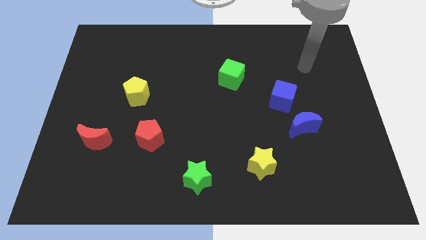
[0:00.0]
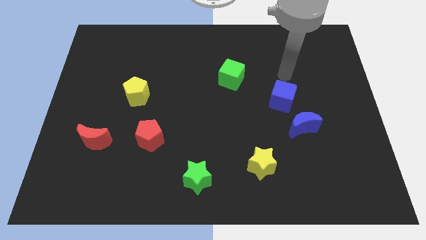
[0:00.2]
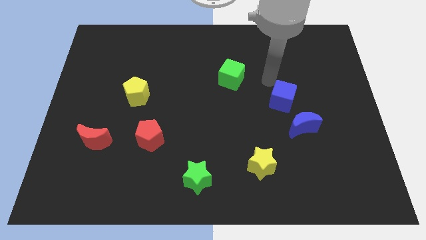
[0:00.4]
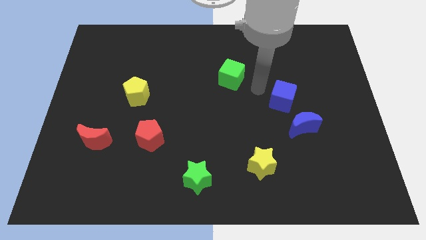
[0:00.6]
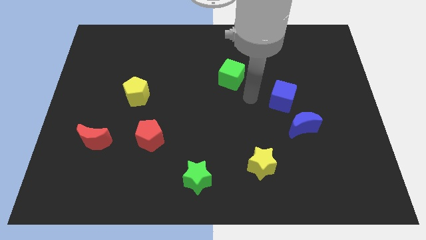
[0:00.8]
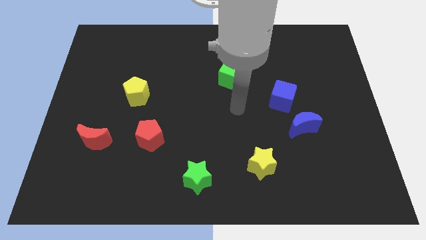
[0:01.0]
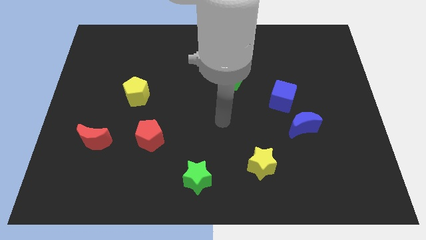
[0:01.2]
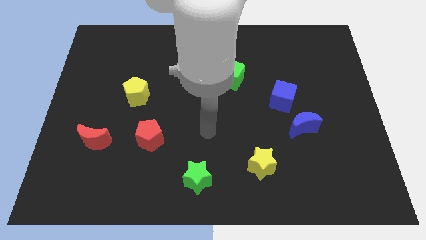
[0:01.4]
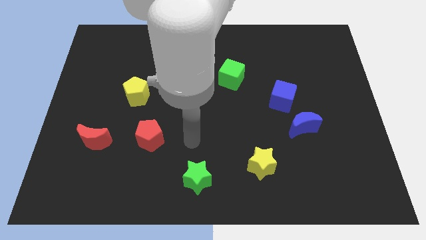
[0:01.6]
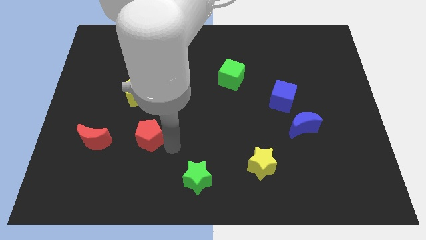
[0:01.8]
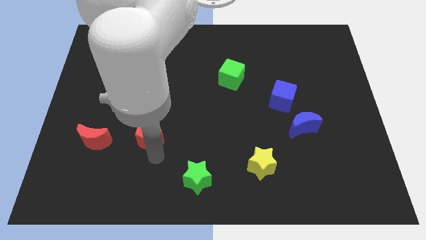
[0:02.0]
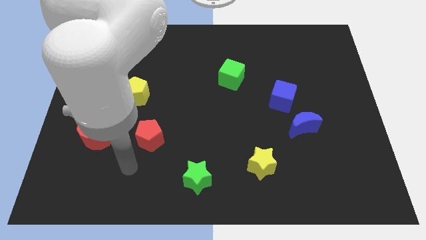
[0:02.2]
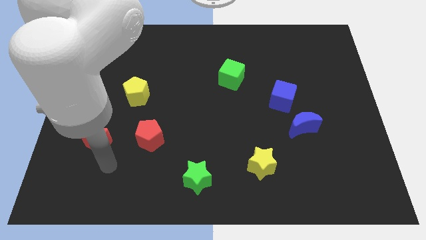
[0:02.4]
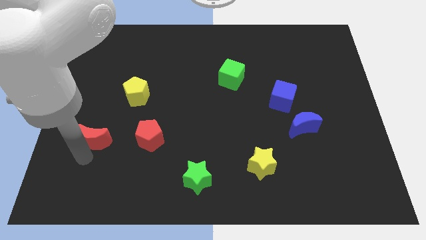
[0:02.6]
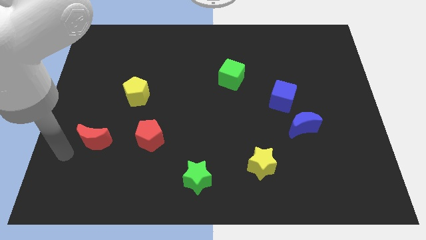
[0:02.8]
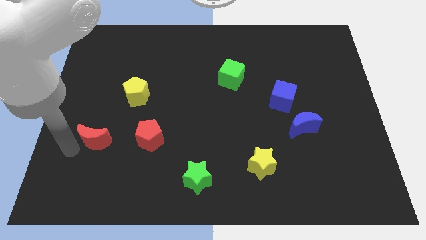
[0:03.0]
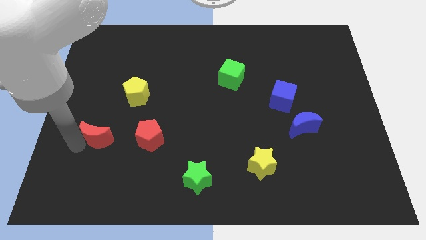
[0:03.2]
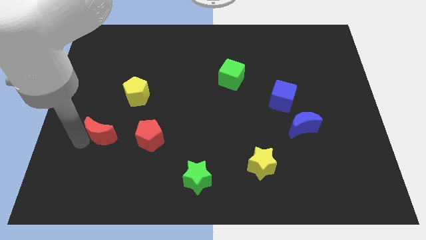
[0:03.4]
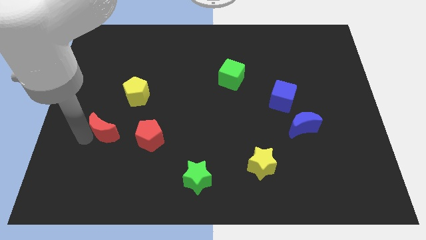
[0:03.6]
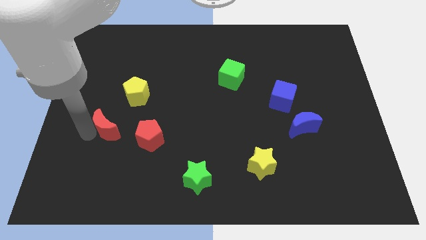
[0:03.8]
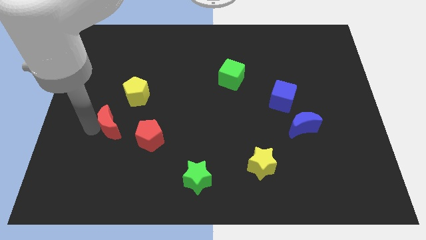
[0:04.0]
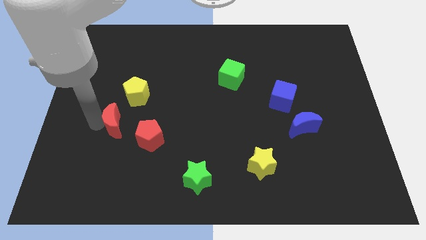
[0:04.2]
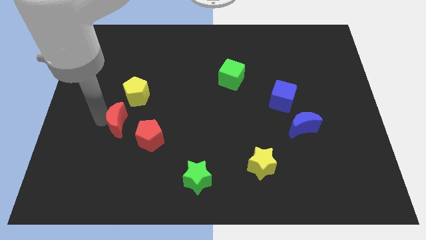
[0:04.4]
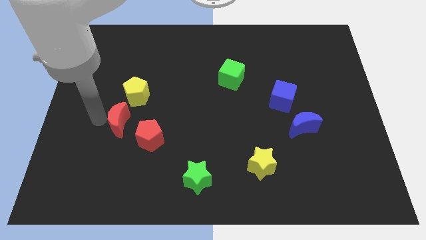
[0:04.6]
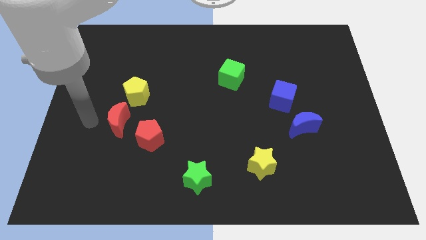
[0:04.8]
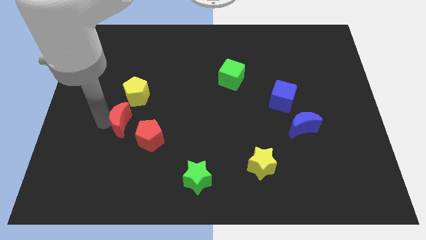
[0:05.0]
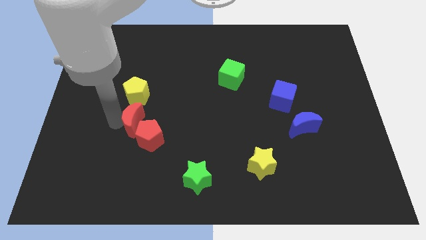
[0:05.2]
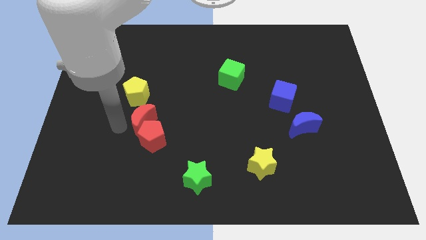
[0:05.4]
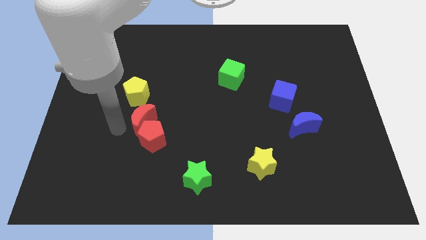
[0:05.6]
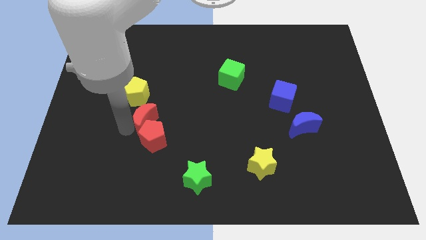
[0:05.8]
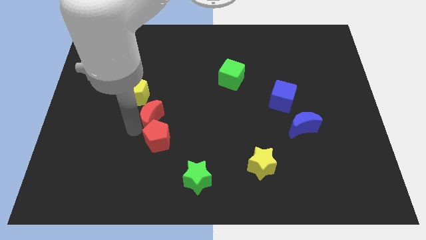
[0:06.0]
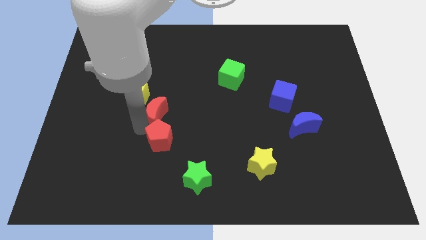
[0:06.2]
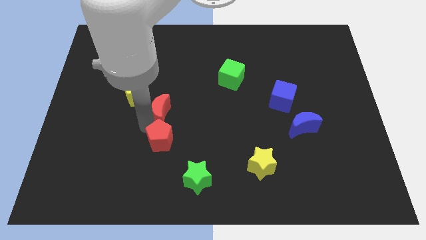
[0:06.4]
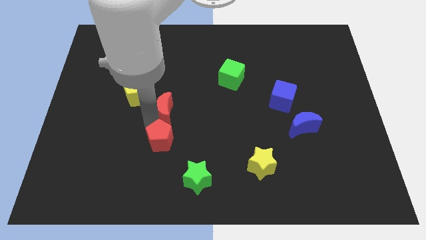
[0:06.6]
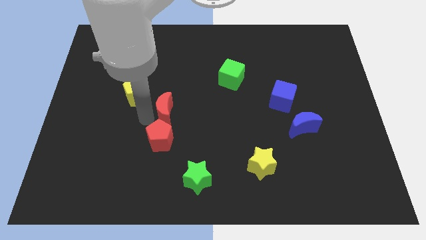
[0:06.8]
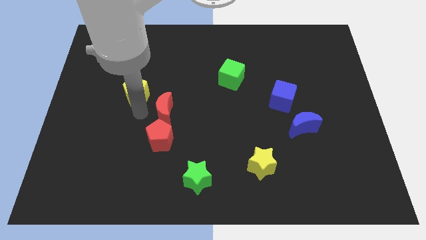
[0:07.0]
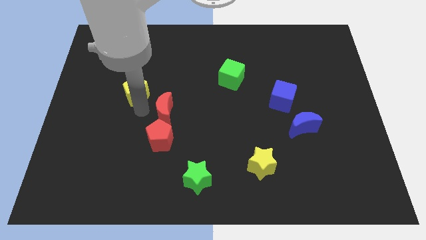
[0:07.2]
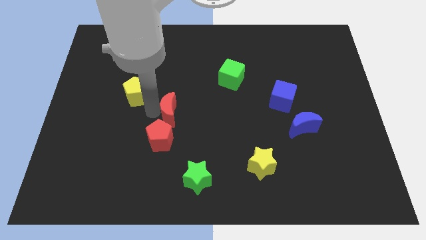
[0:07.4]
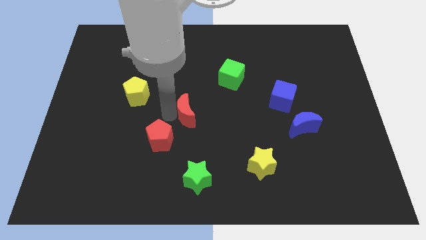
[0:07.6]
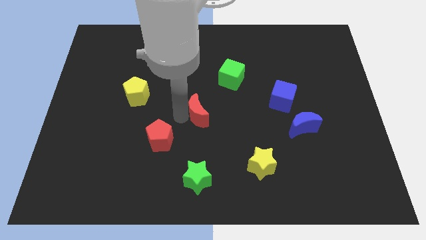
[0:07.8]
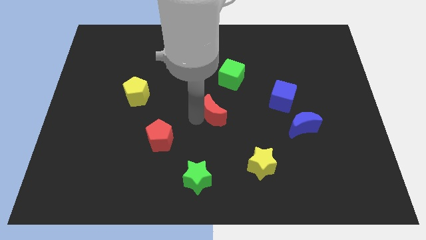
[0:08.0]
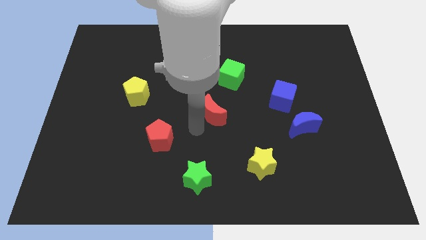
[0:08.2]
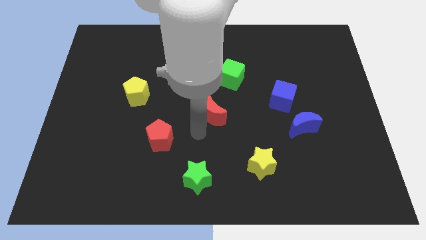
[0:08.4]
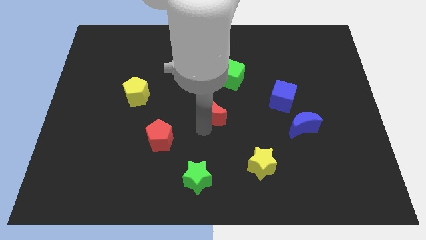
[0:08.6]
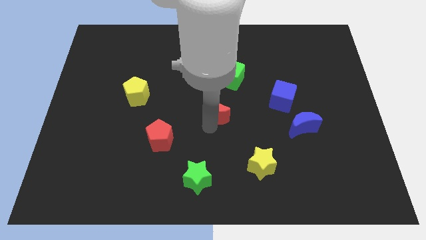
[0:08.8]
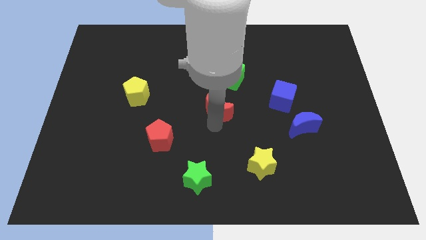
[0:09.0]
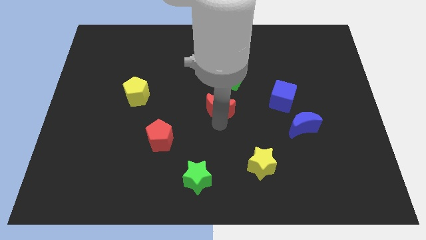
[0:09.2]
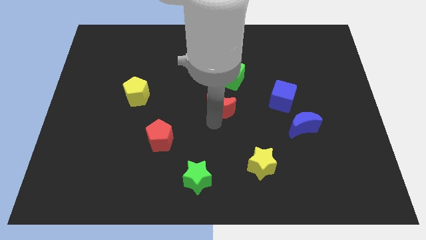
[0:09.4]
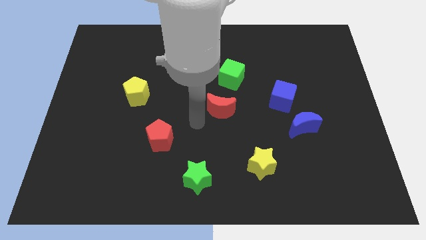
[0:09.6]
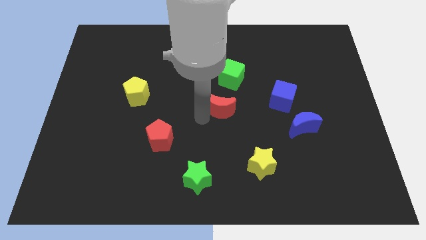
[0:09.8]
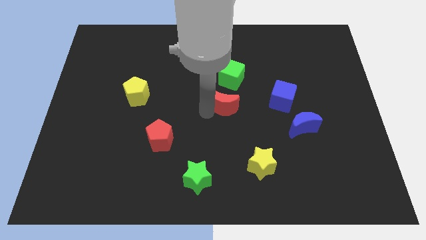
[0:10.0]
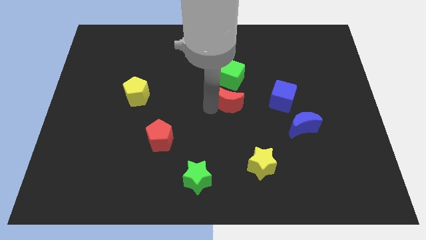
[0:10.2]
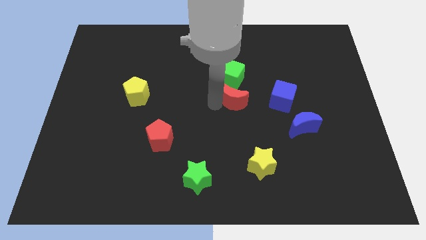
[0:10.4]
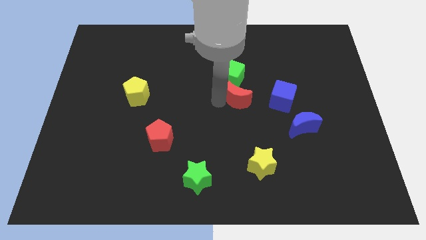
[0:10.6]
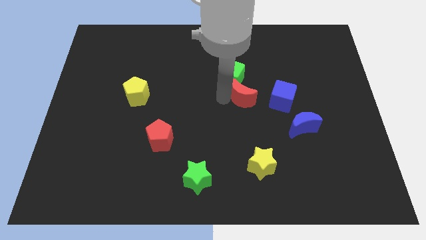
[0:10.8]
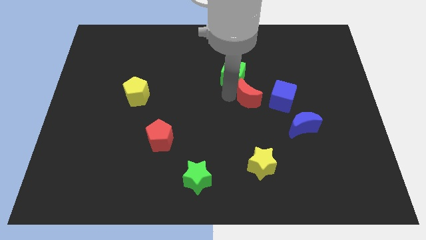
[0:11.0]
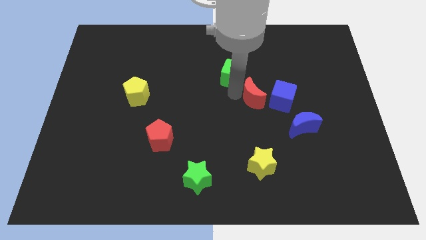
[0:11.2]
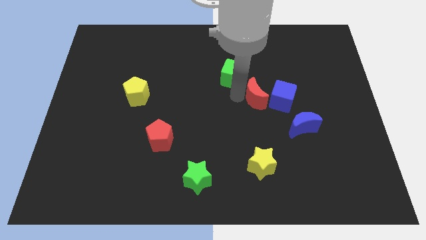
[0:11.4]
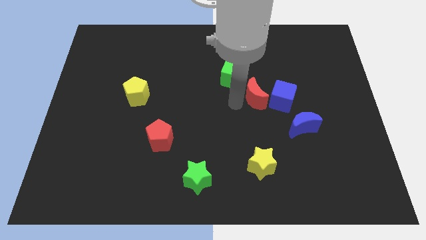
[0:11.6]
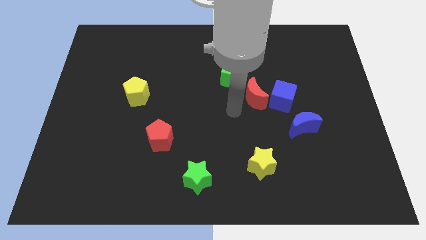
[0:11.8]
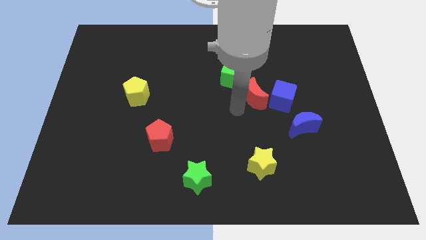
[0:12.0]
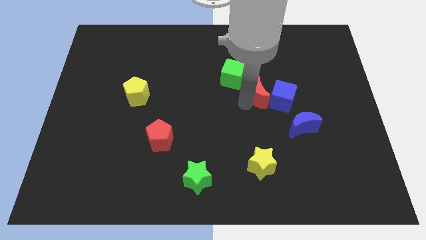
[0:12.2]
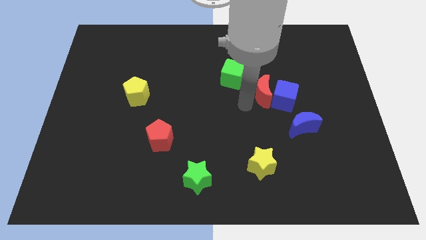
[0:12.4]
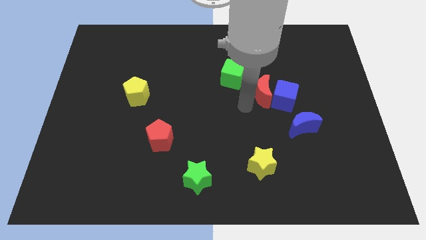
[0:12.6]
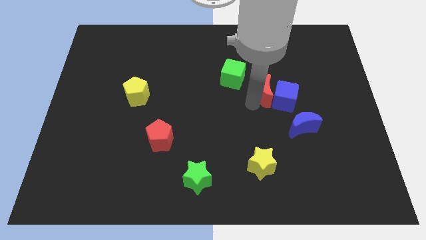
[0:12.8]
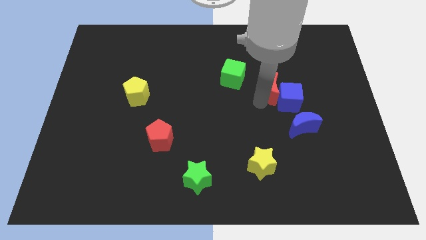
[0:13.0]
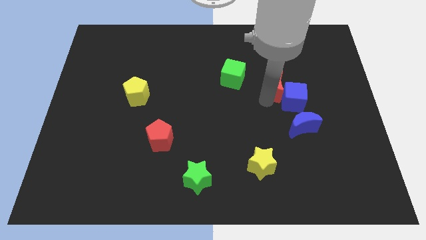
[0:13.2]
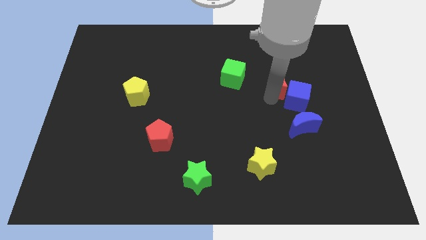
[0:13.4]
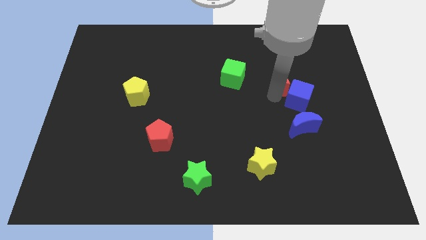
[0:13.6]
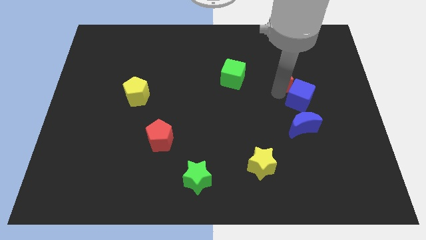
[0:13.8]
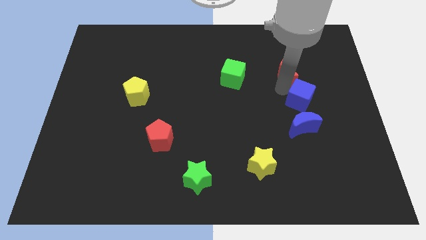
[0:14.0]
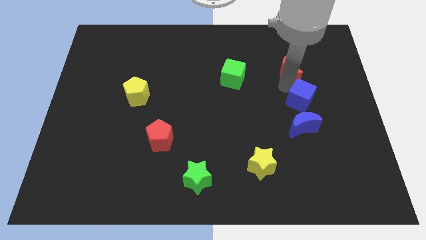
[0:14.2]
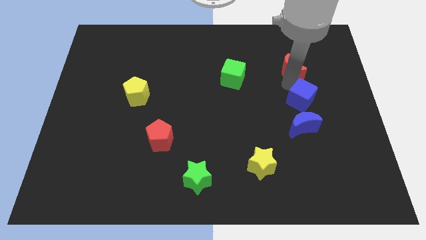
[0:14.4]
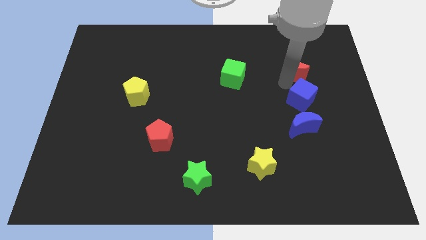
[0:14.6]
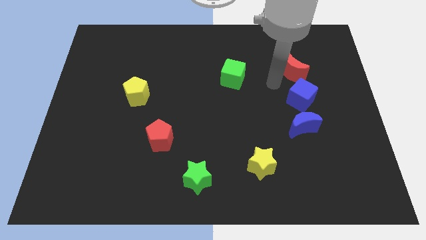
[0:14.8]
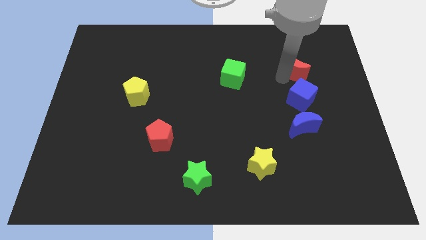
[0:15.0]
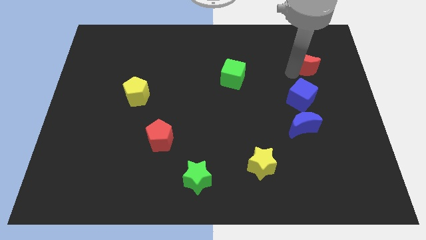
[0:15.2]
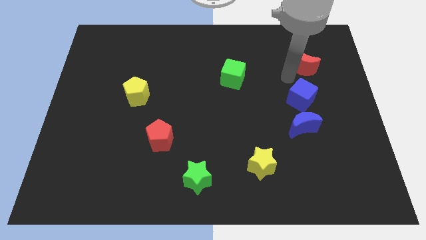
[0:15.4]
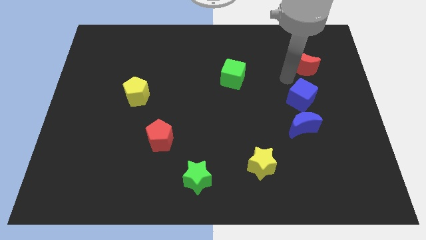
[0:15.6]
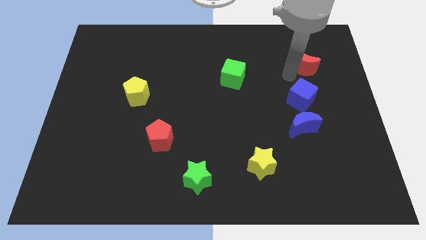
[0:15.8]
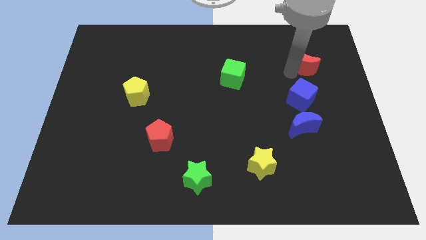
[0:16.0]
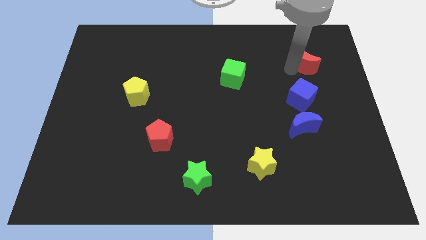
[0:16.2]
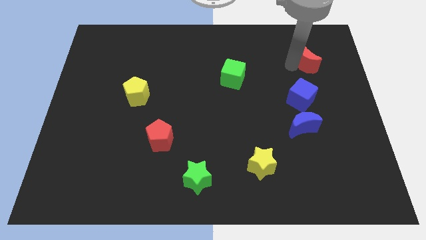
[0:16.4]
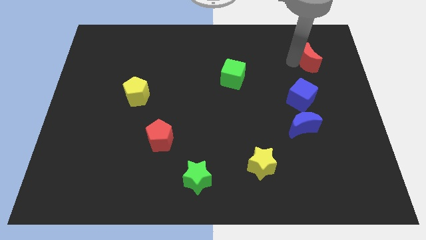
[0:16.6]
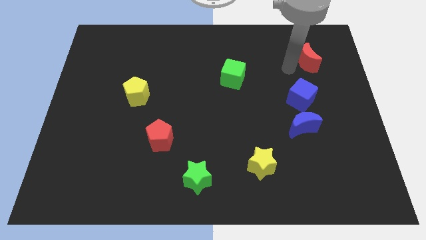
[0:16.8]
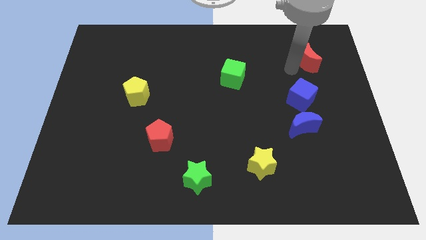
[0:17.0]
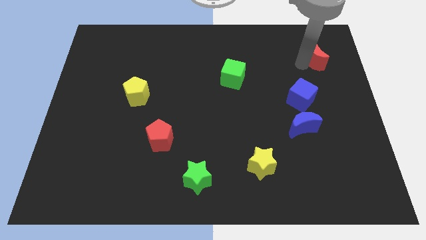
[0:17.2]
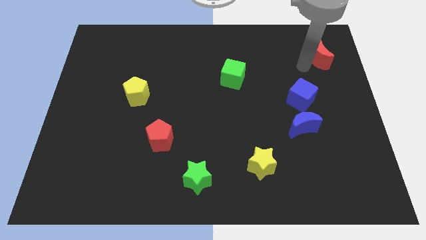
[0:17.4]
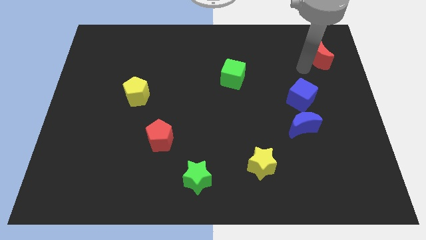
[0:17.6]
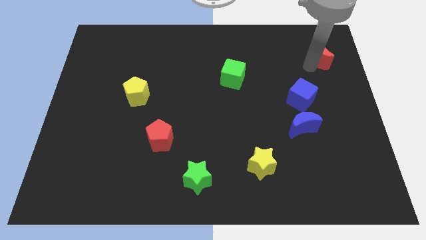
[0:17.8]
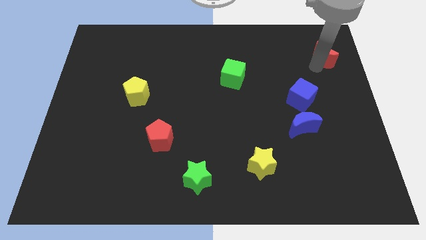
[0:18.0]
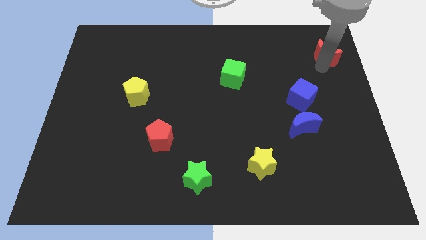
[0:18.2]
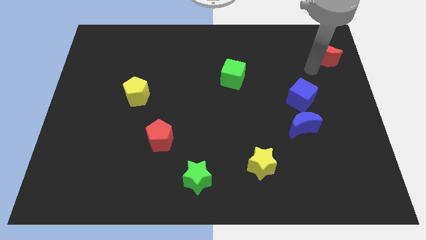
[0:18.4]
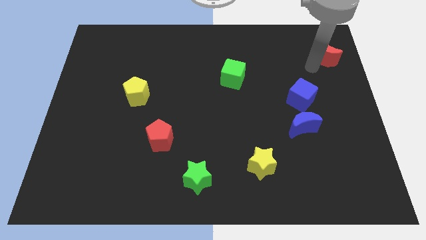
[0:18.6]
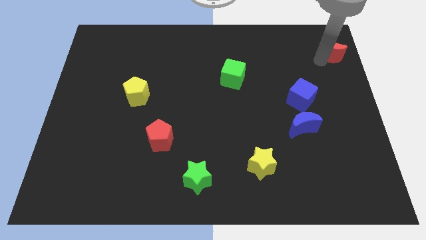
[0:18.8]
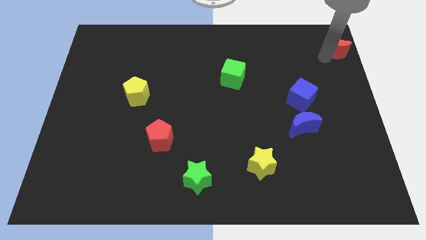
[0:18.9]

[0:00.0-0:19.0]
slide the red moon to the top right of the board
